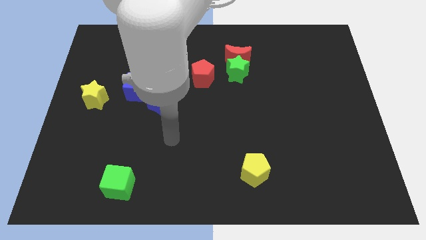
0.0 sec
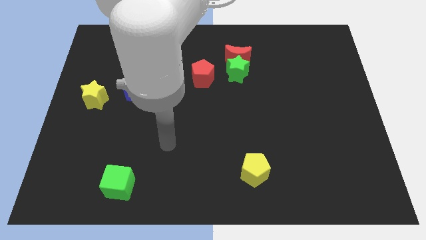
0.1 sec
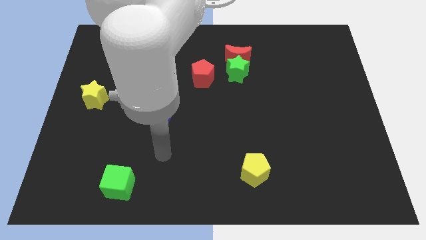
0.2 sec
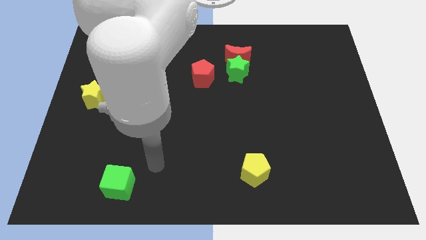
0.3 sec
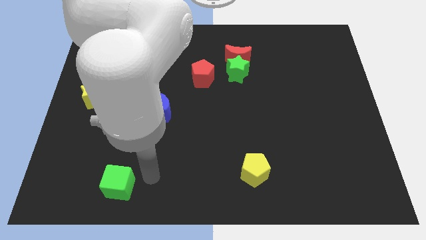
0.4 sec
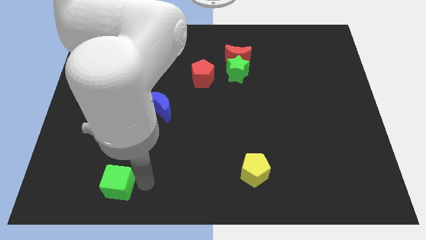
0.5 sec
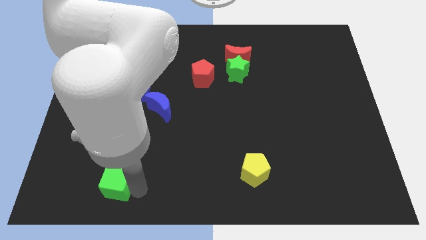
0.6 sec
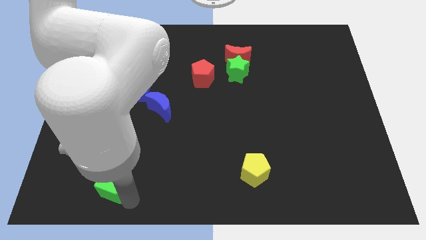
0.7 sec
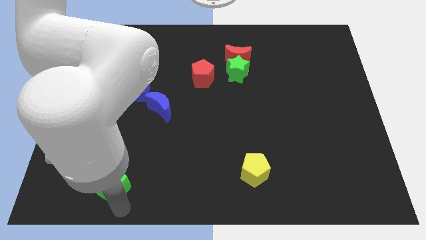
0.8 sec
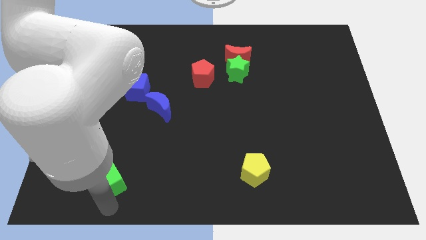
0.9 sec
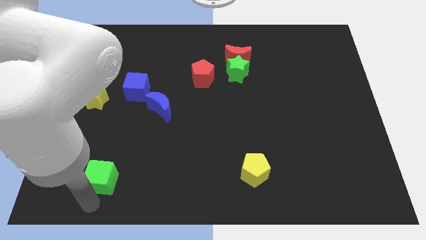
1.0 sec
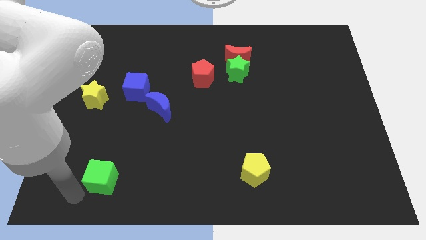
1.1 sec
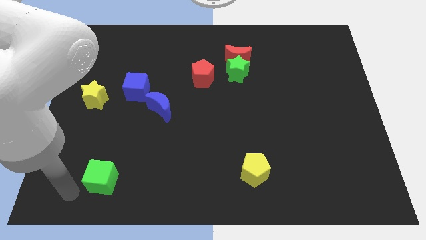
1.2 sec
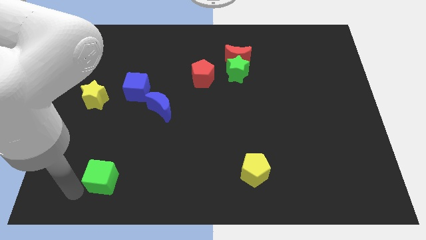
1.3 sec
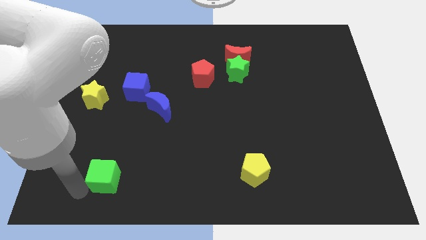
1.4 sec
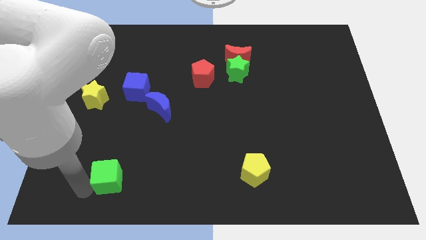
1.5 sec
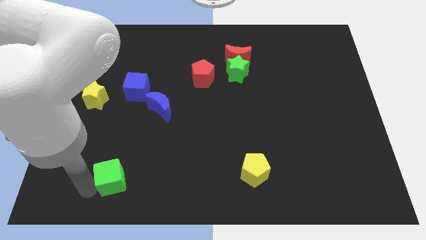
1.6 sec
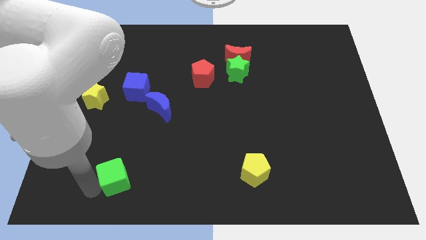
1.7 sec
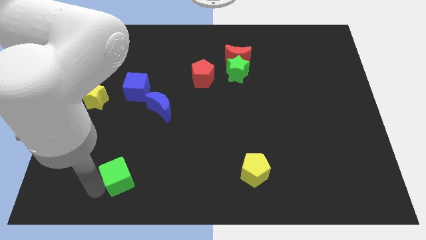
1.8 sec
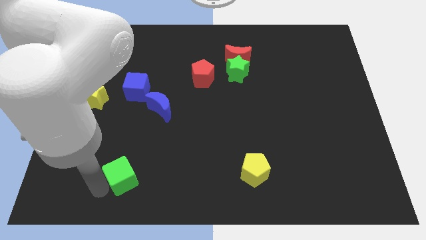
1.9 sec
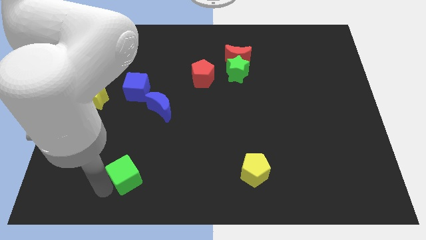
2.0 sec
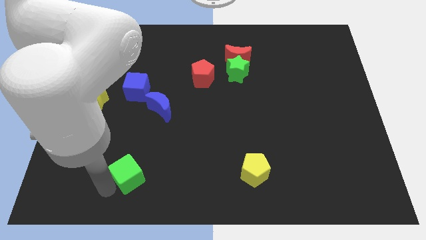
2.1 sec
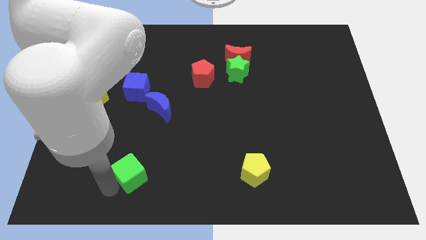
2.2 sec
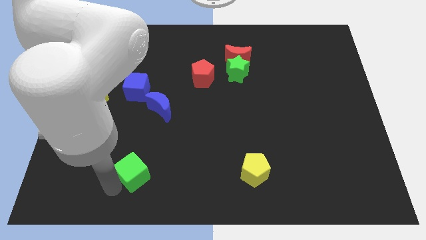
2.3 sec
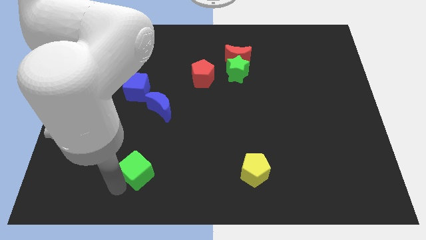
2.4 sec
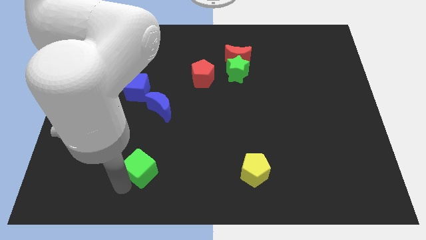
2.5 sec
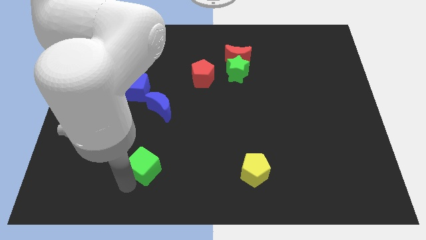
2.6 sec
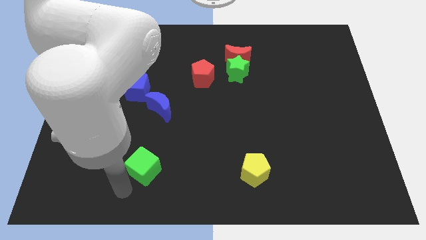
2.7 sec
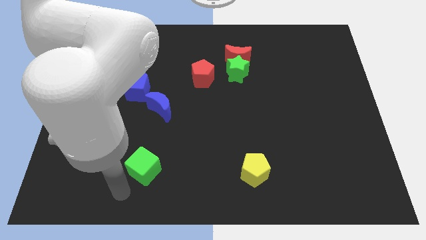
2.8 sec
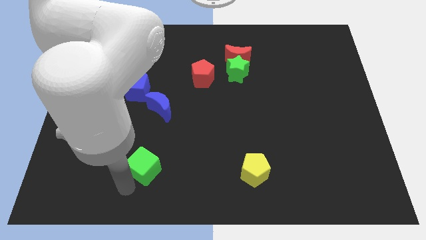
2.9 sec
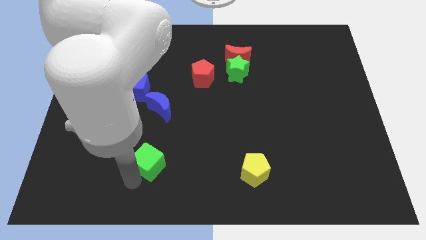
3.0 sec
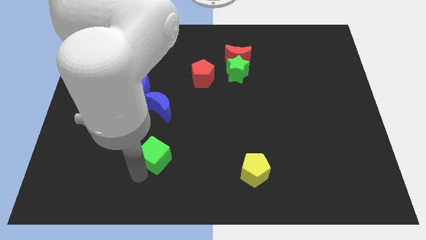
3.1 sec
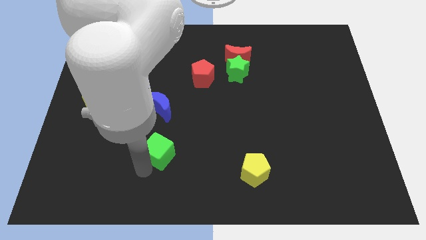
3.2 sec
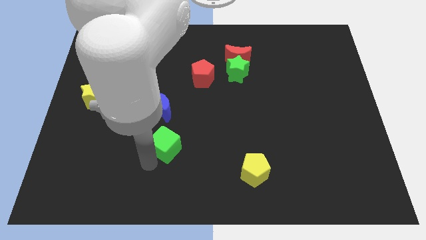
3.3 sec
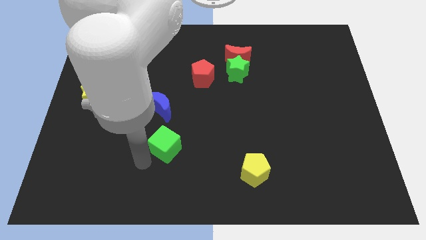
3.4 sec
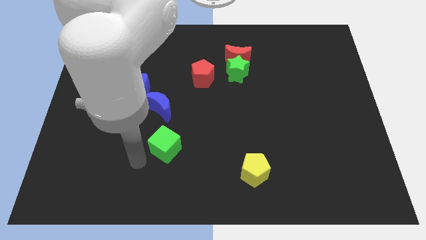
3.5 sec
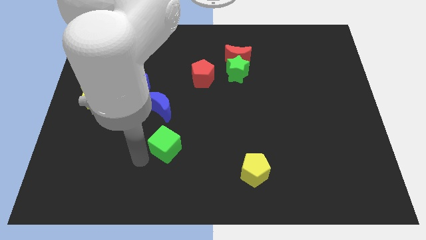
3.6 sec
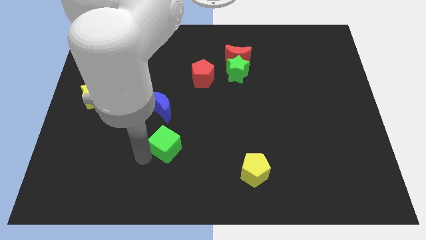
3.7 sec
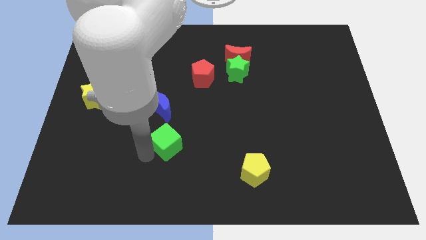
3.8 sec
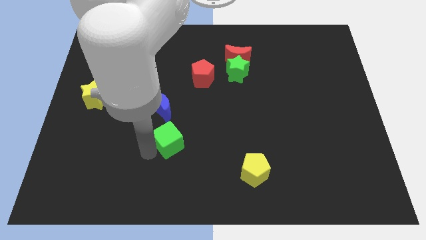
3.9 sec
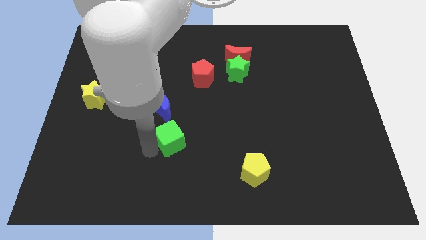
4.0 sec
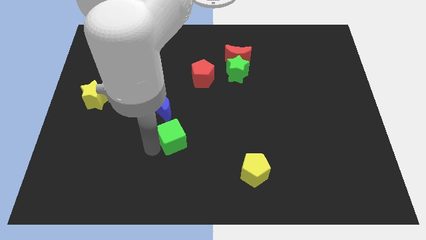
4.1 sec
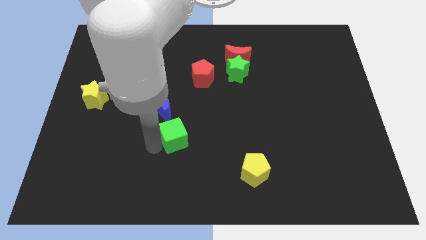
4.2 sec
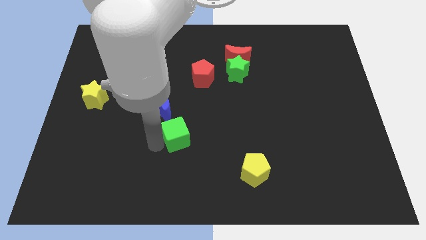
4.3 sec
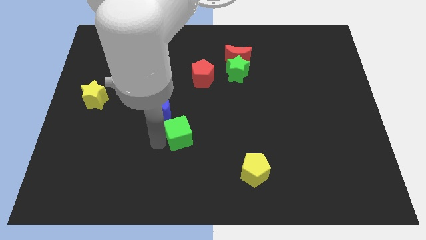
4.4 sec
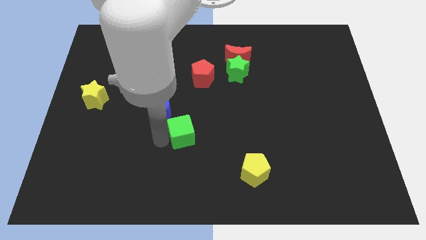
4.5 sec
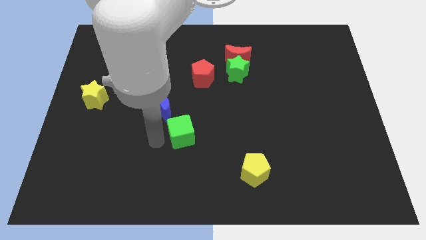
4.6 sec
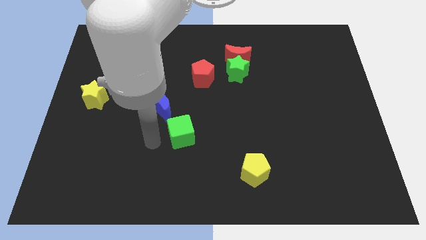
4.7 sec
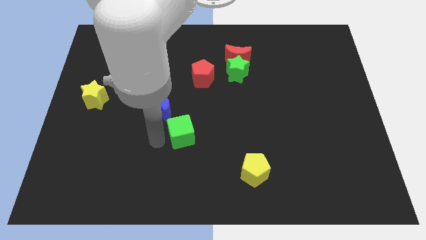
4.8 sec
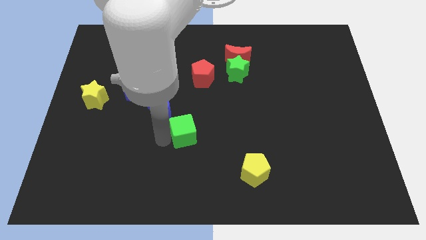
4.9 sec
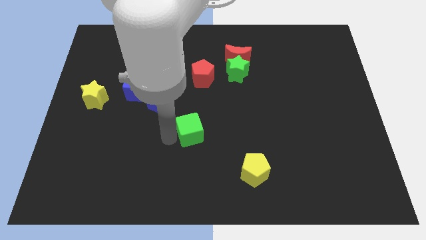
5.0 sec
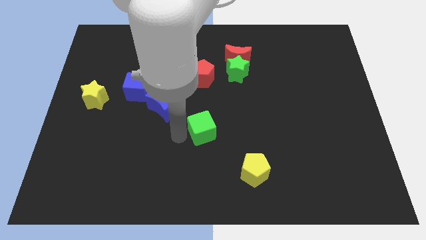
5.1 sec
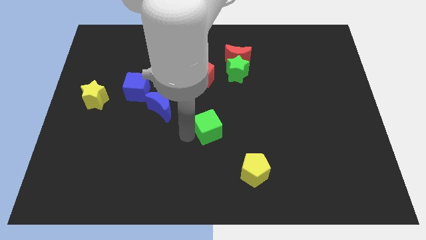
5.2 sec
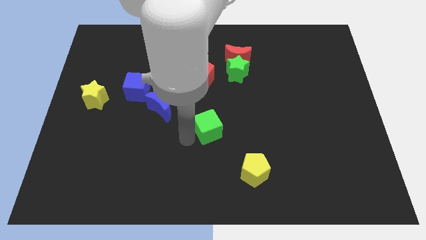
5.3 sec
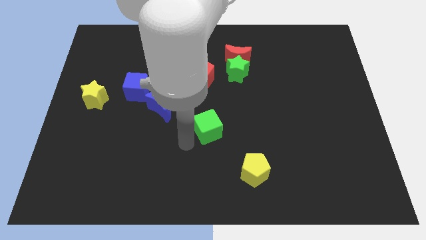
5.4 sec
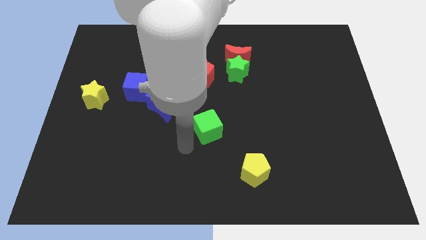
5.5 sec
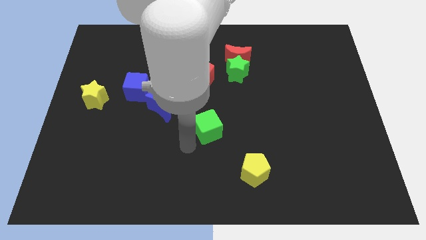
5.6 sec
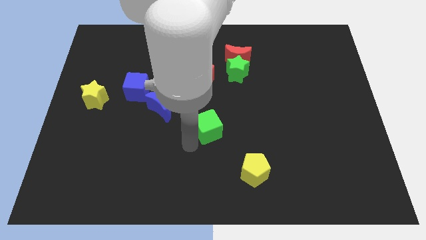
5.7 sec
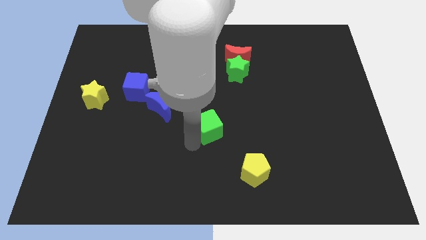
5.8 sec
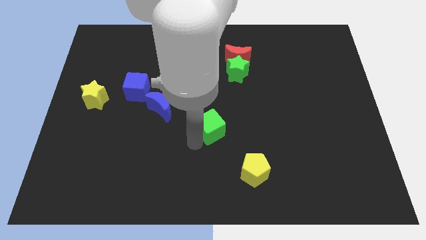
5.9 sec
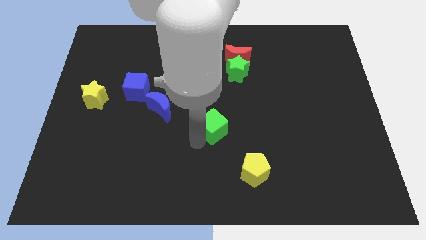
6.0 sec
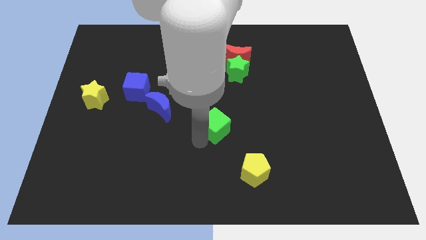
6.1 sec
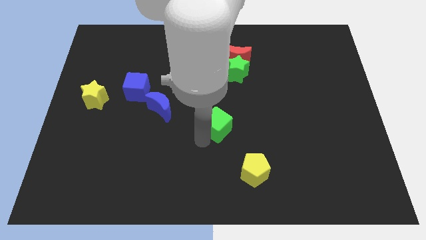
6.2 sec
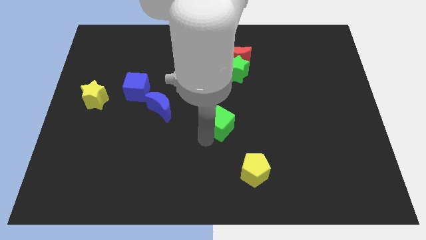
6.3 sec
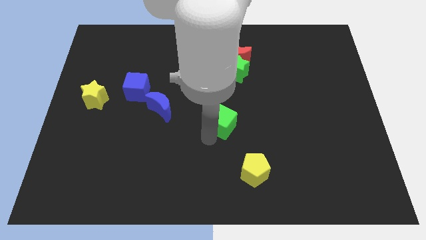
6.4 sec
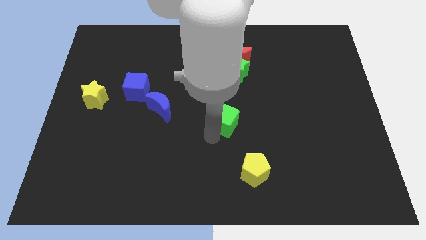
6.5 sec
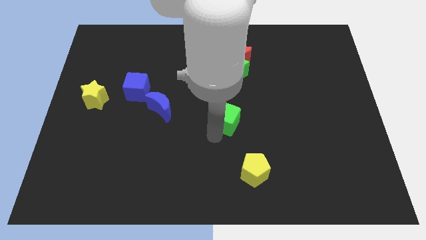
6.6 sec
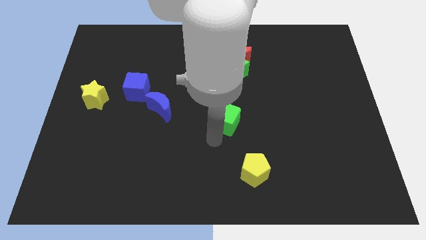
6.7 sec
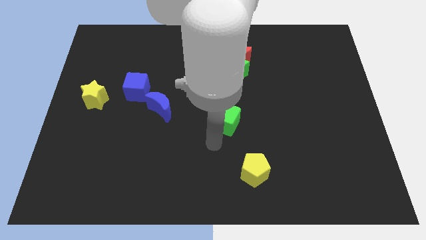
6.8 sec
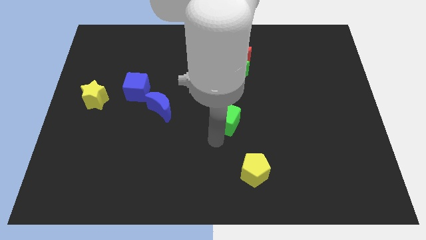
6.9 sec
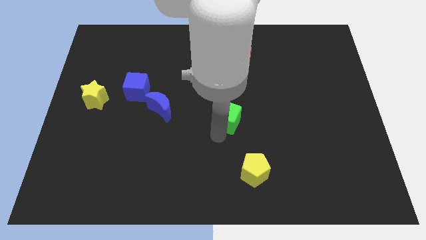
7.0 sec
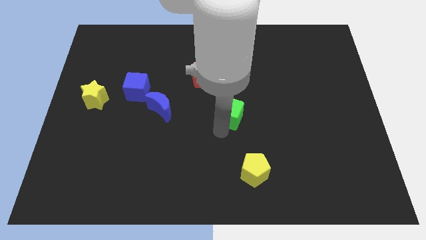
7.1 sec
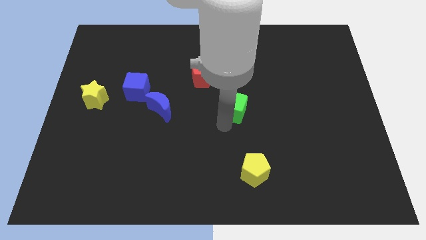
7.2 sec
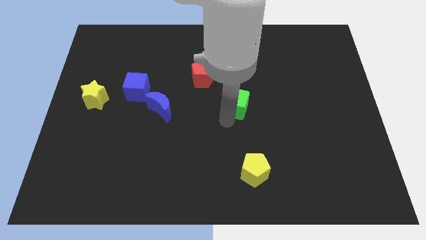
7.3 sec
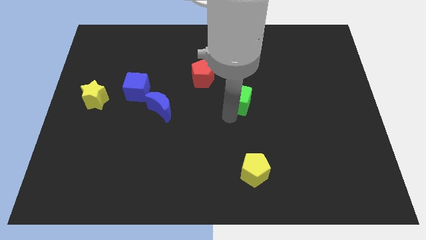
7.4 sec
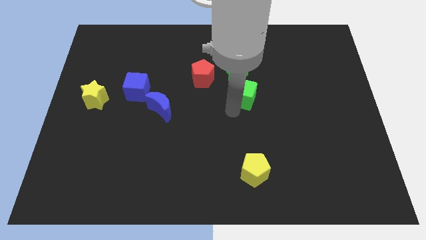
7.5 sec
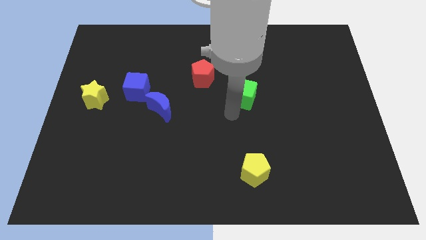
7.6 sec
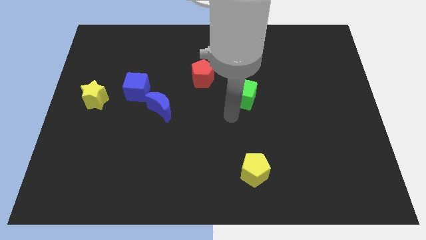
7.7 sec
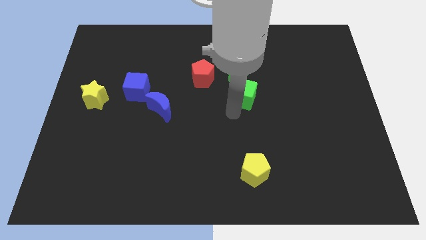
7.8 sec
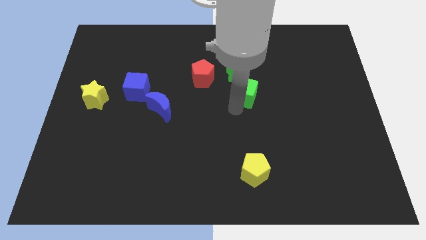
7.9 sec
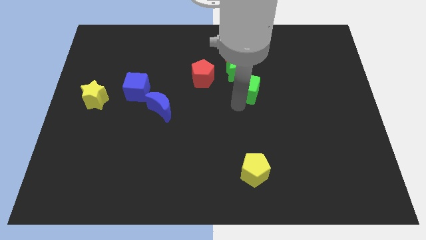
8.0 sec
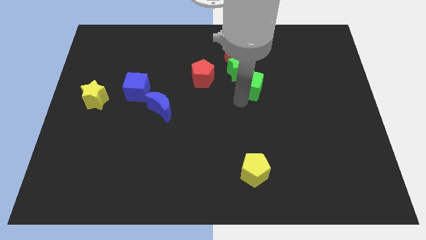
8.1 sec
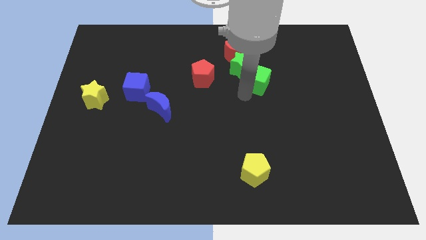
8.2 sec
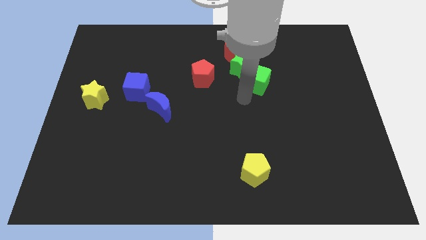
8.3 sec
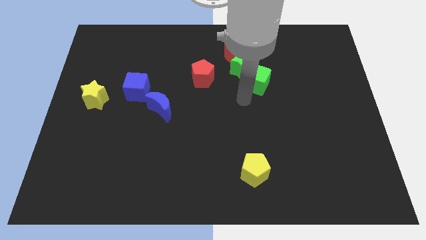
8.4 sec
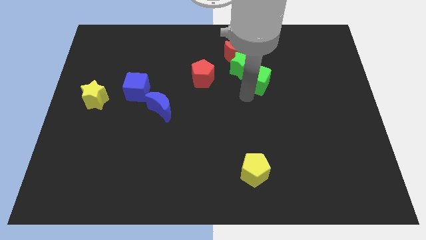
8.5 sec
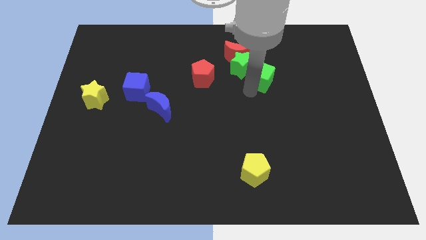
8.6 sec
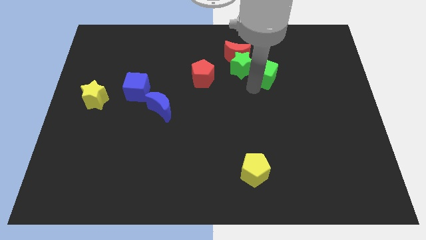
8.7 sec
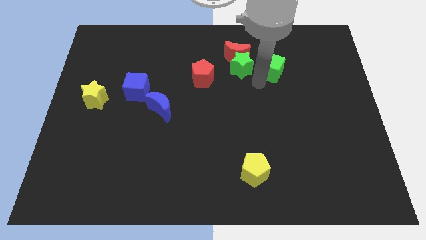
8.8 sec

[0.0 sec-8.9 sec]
put the green cube just right of the red moon
